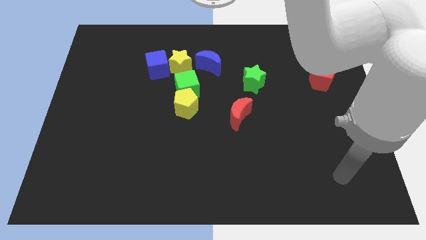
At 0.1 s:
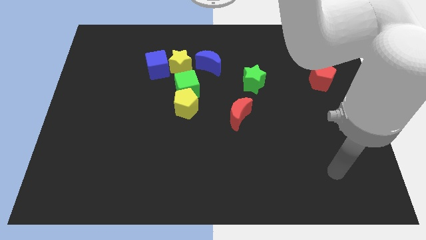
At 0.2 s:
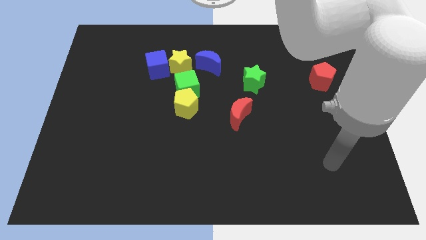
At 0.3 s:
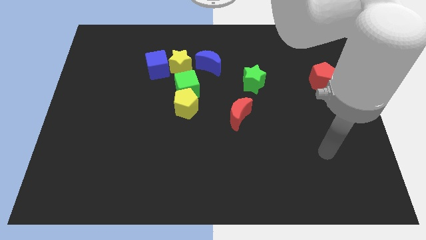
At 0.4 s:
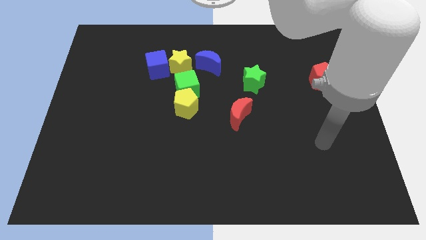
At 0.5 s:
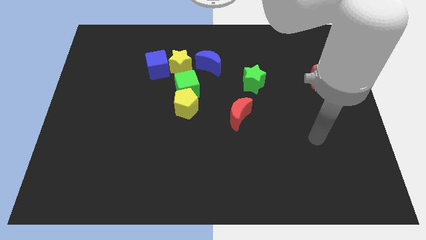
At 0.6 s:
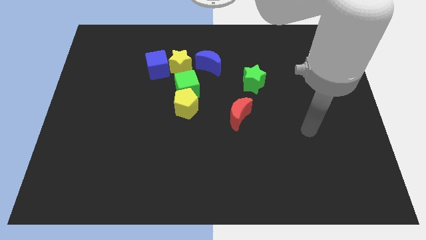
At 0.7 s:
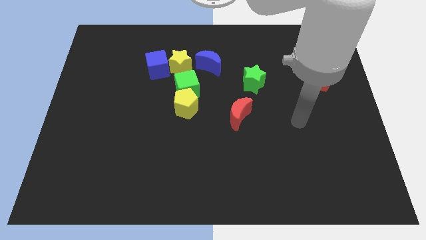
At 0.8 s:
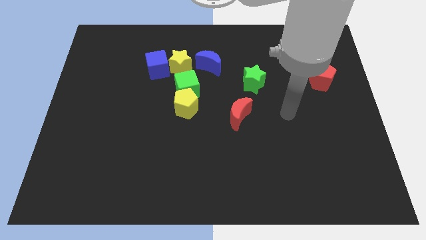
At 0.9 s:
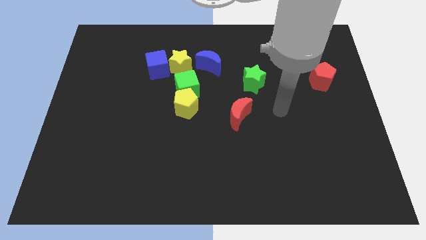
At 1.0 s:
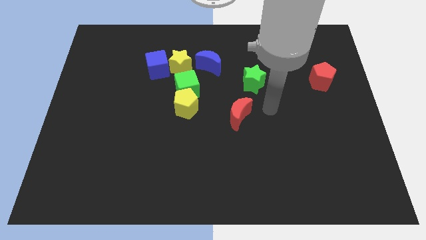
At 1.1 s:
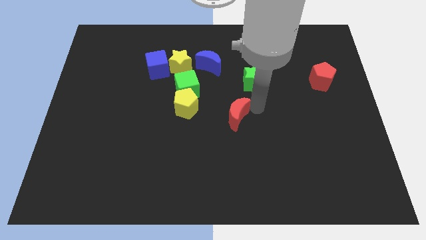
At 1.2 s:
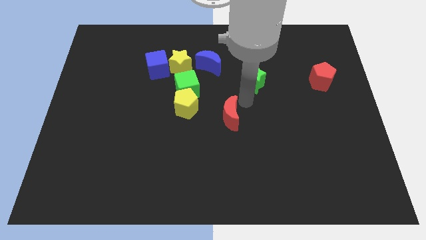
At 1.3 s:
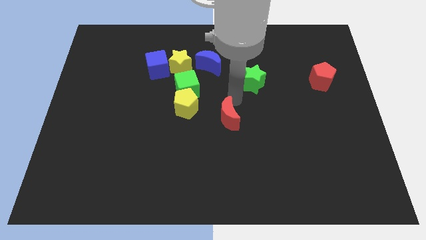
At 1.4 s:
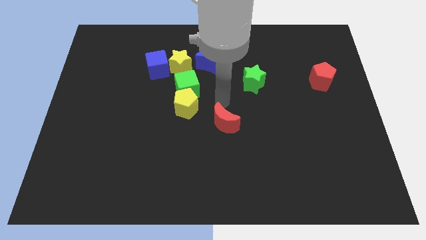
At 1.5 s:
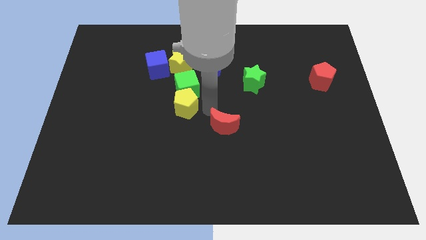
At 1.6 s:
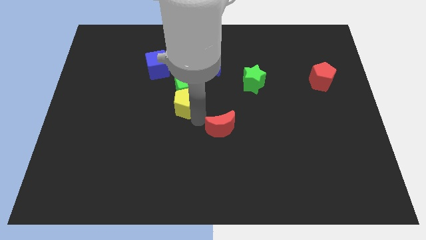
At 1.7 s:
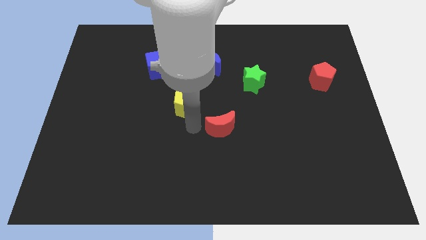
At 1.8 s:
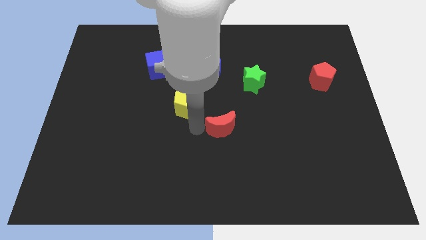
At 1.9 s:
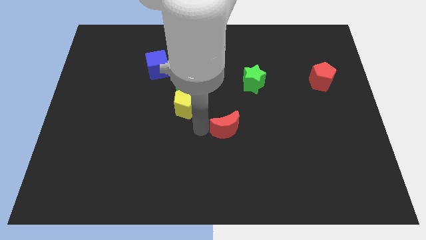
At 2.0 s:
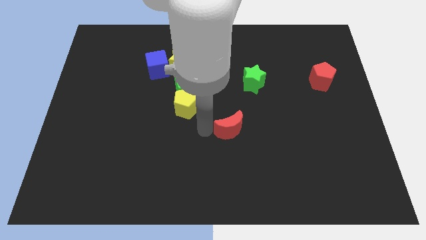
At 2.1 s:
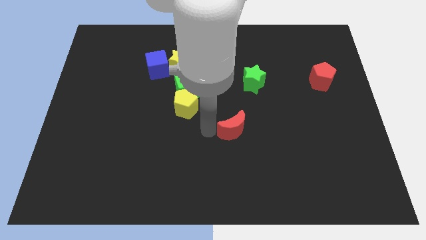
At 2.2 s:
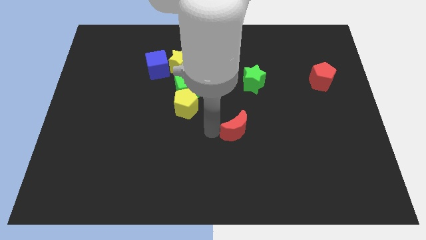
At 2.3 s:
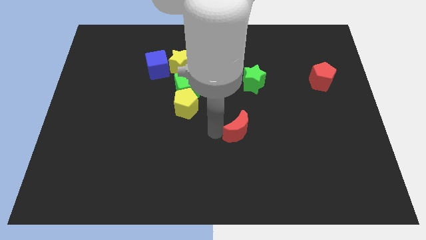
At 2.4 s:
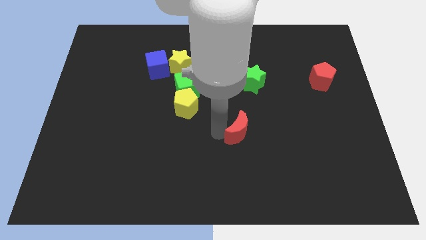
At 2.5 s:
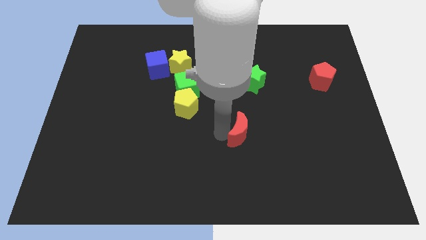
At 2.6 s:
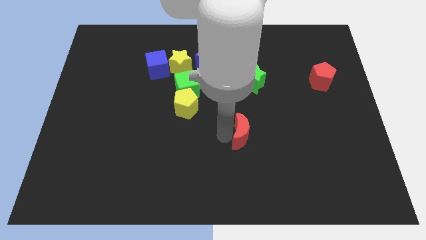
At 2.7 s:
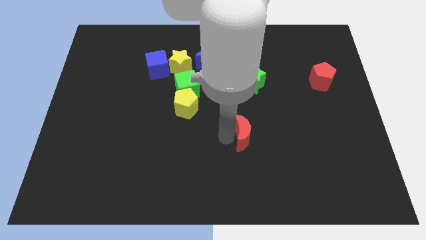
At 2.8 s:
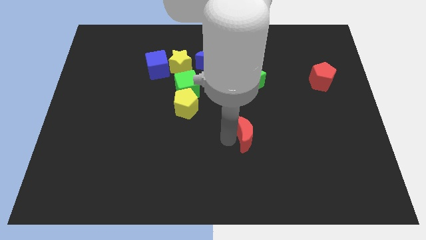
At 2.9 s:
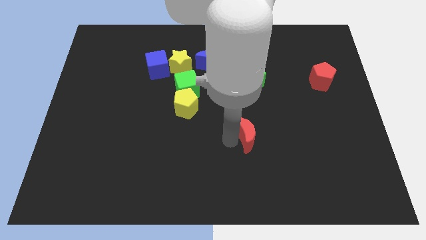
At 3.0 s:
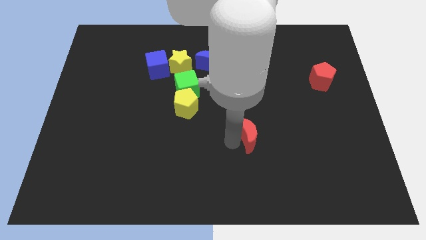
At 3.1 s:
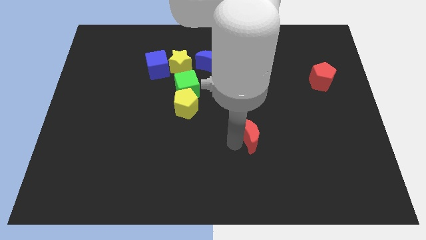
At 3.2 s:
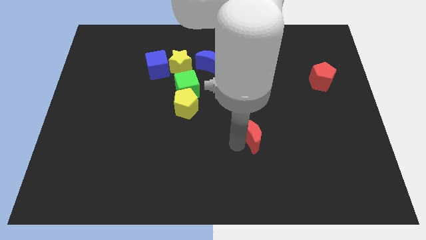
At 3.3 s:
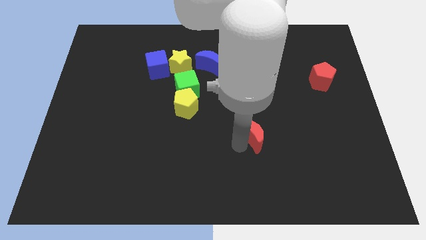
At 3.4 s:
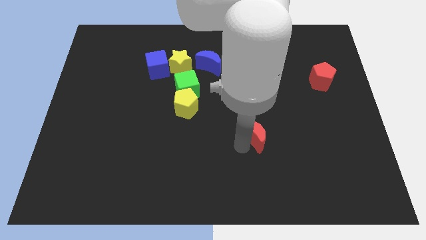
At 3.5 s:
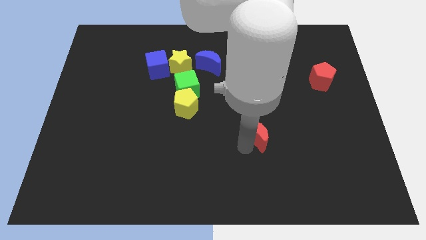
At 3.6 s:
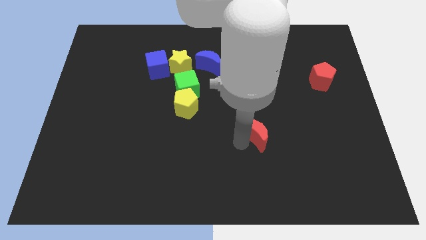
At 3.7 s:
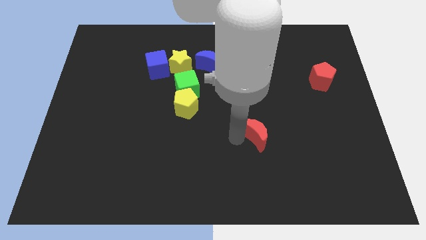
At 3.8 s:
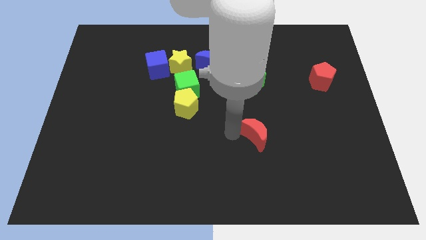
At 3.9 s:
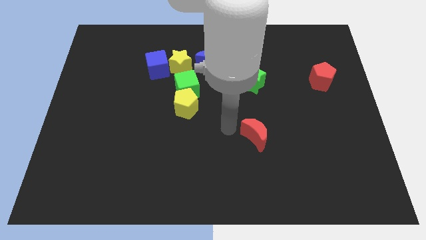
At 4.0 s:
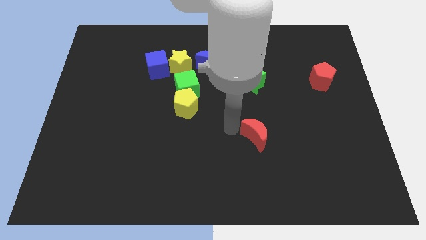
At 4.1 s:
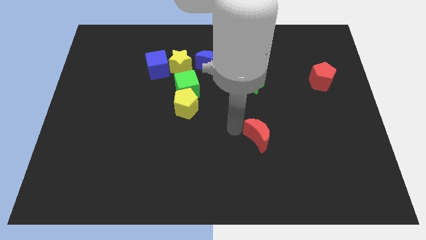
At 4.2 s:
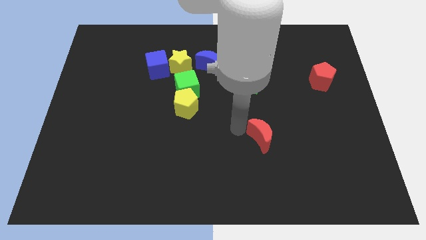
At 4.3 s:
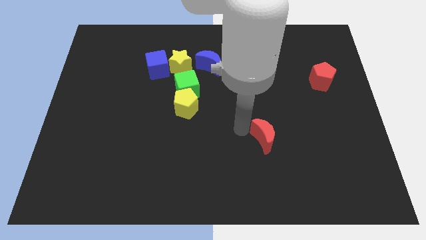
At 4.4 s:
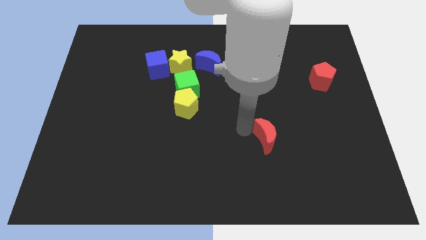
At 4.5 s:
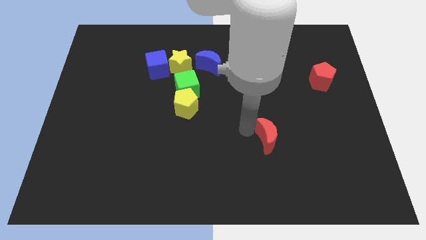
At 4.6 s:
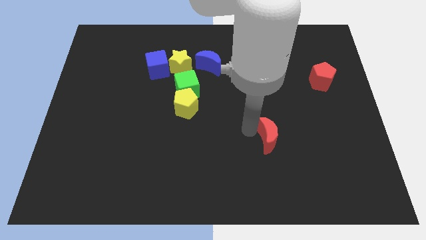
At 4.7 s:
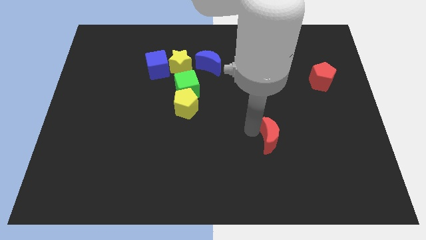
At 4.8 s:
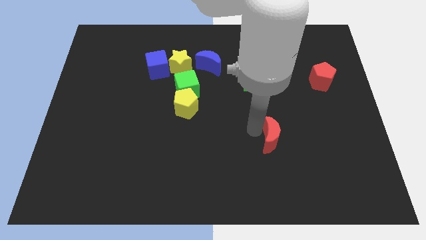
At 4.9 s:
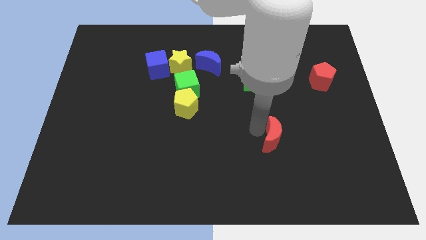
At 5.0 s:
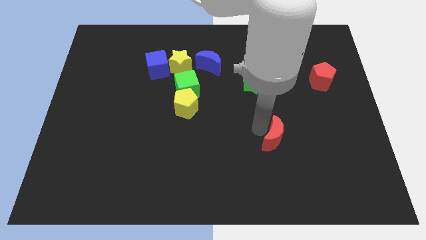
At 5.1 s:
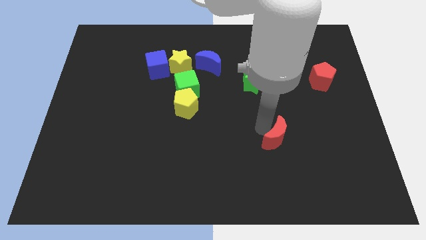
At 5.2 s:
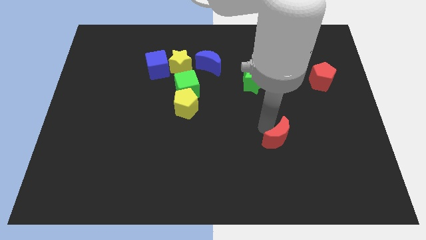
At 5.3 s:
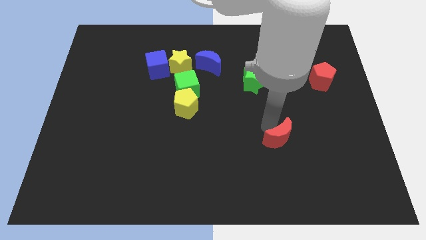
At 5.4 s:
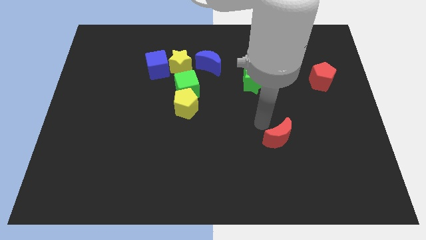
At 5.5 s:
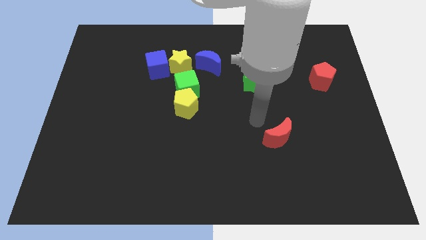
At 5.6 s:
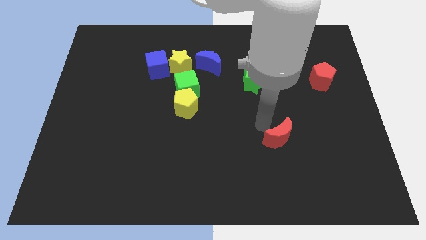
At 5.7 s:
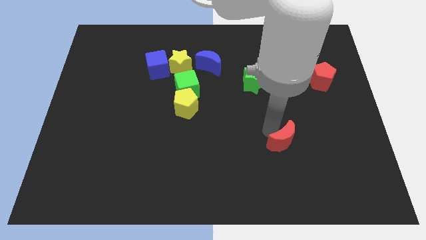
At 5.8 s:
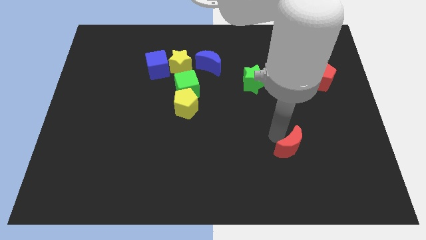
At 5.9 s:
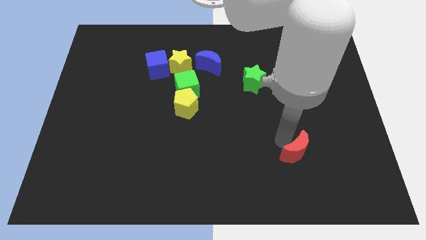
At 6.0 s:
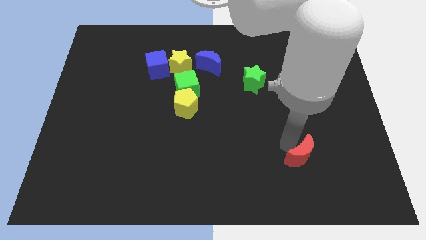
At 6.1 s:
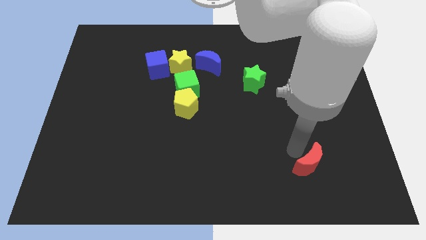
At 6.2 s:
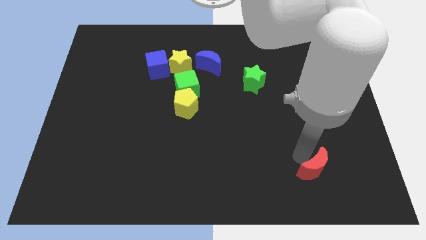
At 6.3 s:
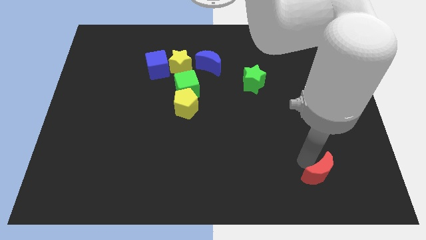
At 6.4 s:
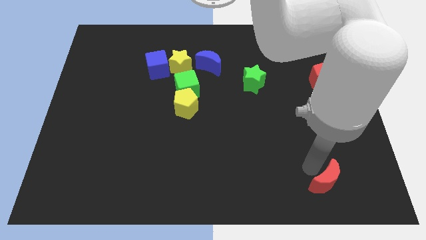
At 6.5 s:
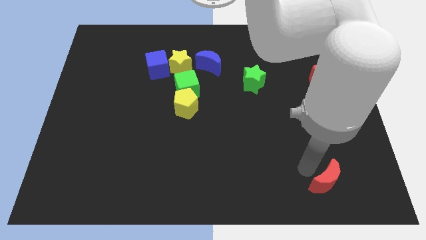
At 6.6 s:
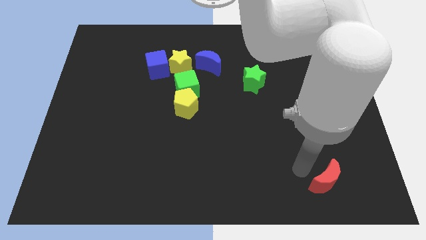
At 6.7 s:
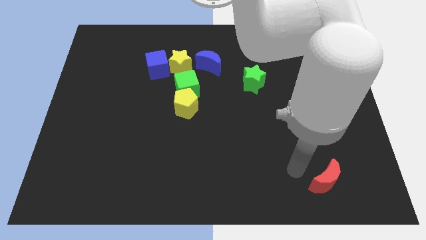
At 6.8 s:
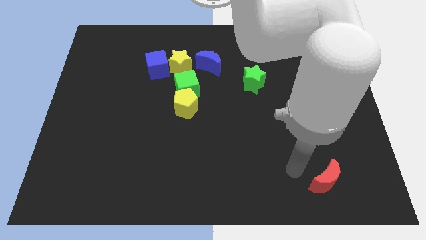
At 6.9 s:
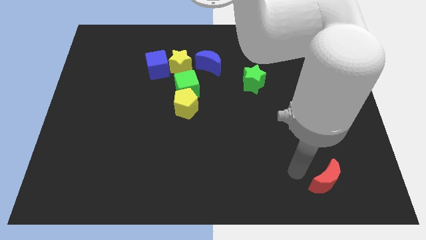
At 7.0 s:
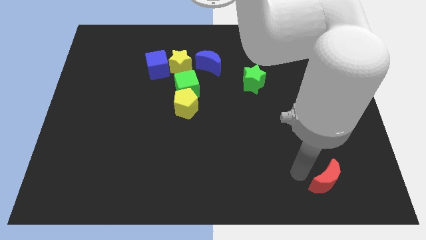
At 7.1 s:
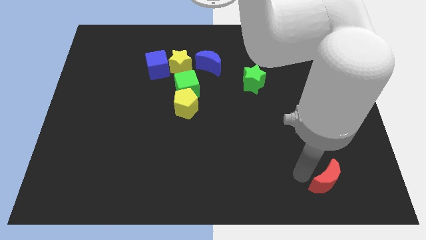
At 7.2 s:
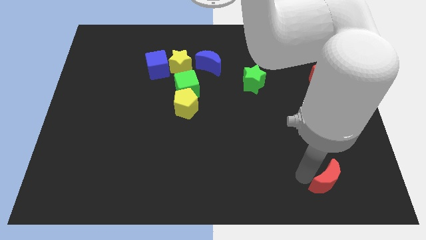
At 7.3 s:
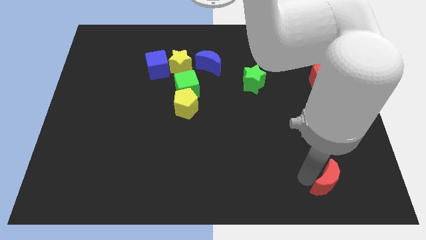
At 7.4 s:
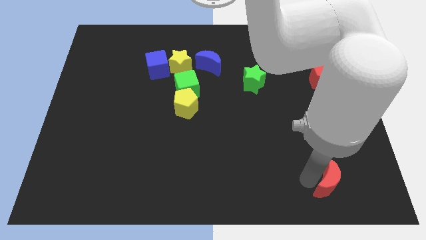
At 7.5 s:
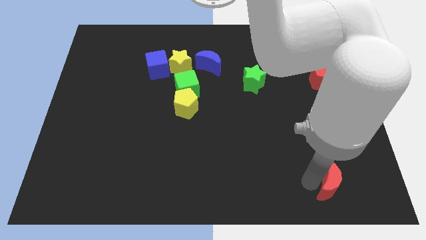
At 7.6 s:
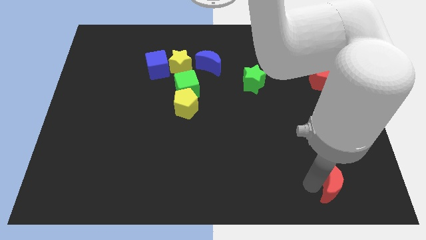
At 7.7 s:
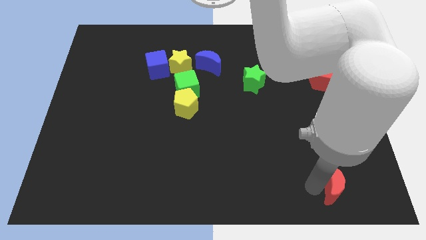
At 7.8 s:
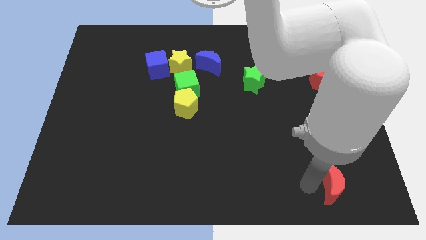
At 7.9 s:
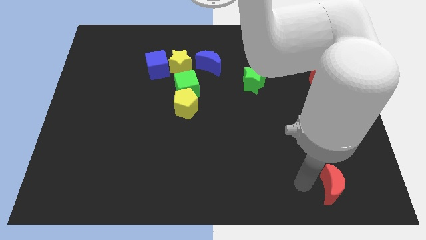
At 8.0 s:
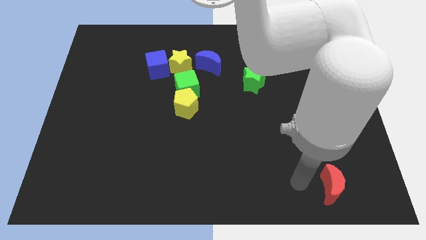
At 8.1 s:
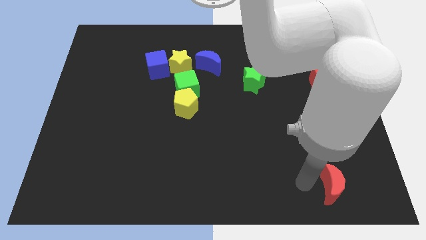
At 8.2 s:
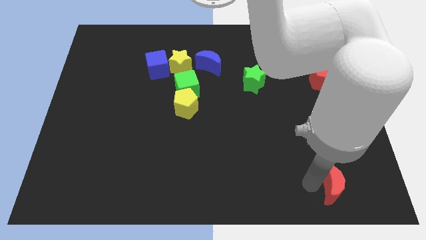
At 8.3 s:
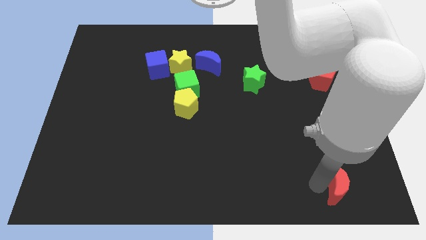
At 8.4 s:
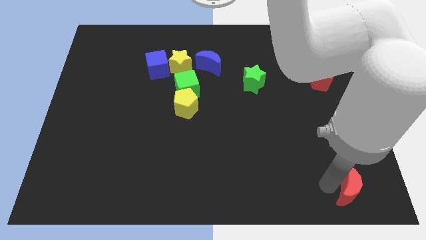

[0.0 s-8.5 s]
move the red moon to the lower right corner
